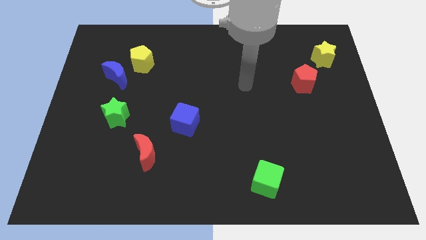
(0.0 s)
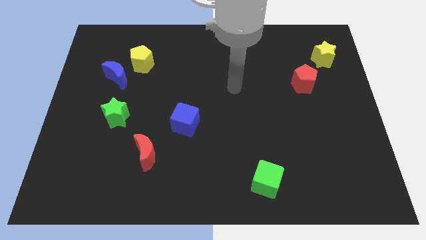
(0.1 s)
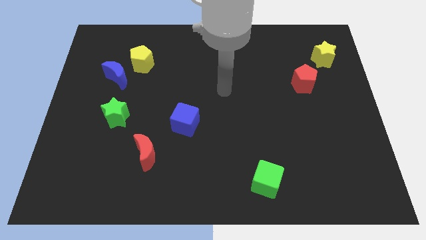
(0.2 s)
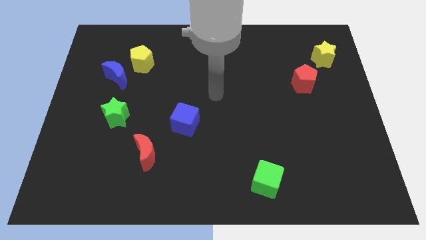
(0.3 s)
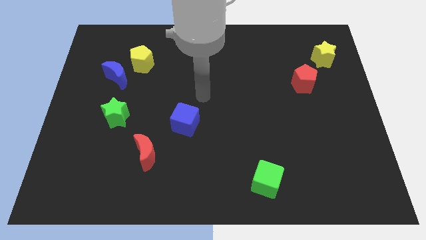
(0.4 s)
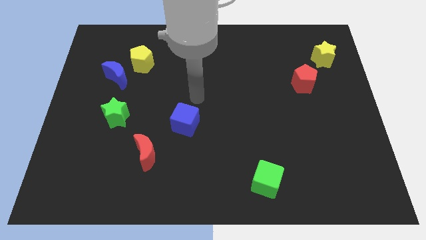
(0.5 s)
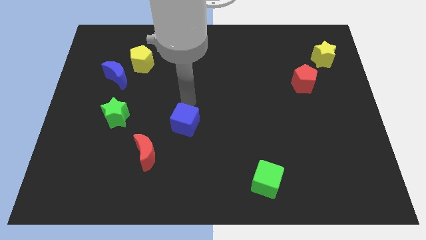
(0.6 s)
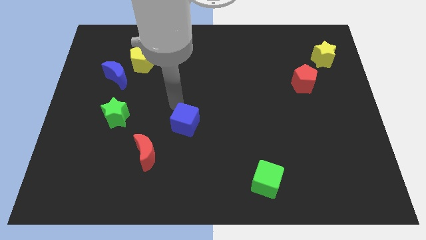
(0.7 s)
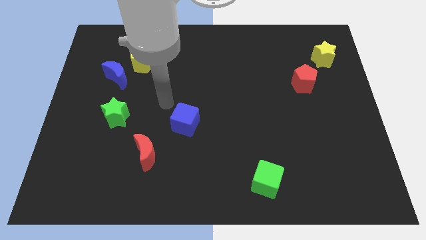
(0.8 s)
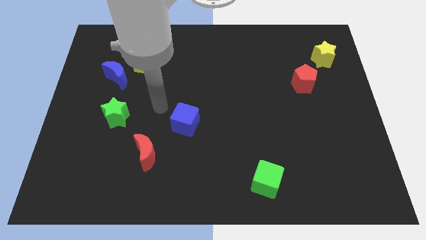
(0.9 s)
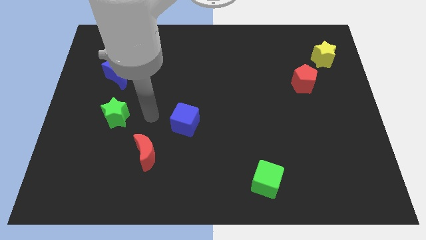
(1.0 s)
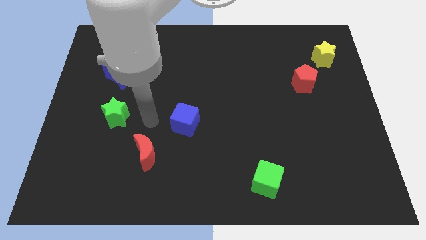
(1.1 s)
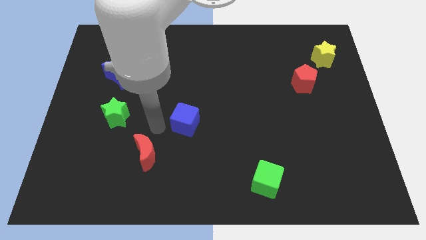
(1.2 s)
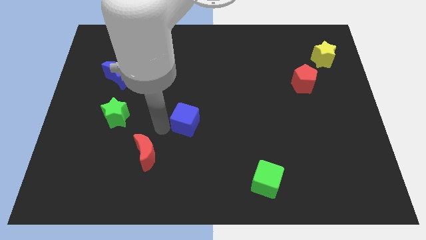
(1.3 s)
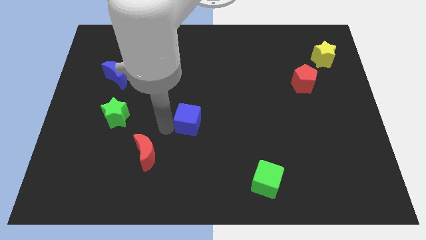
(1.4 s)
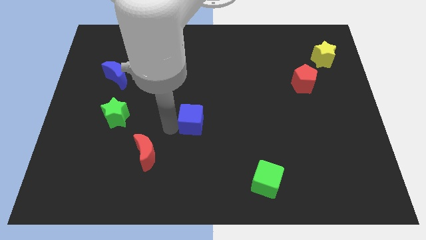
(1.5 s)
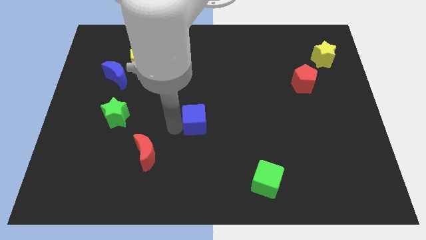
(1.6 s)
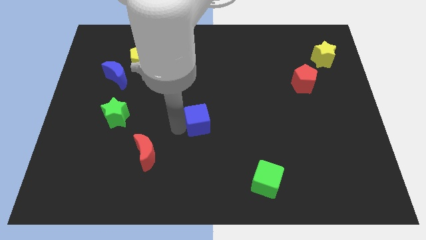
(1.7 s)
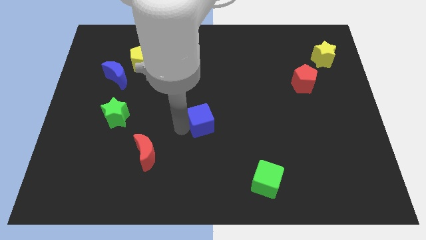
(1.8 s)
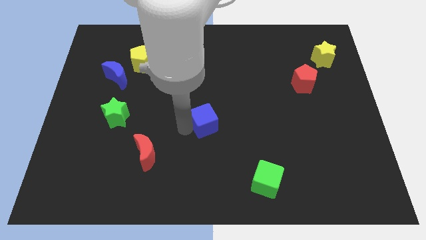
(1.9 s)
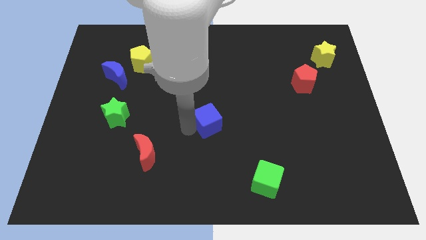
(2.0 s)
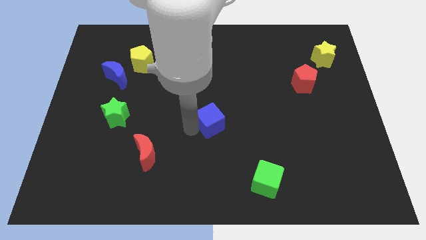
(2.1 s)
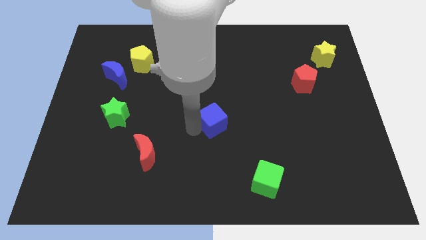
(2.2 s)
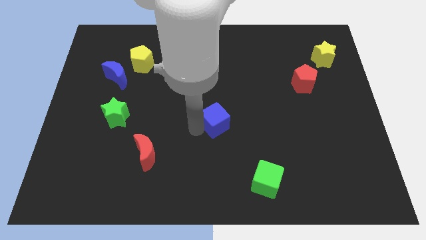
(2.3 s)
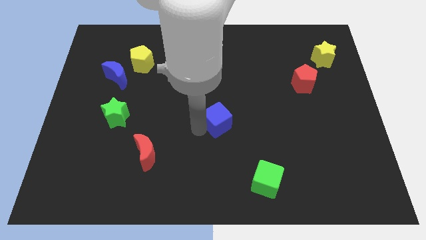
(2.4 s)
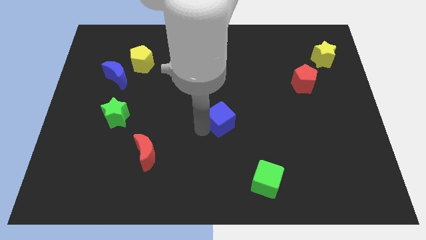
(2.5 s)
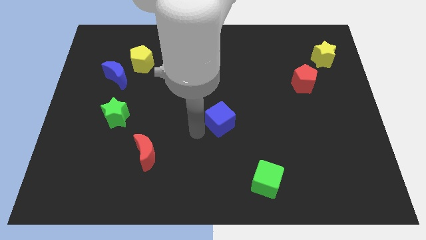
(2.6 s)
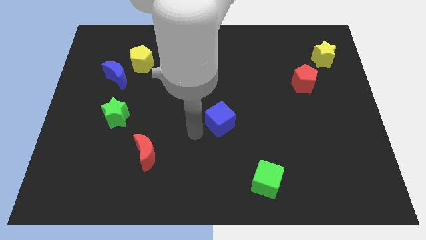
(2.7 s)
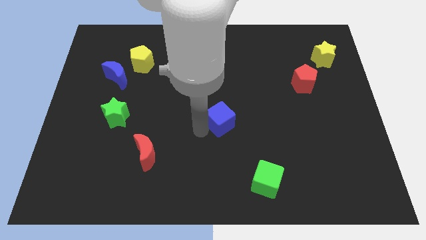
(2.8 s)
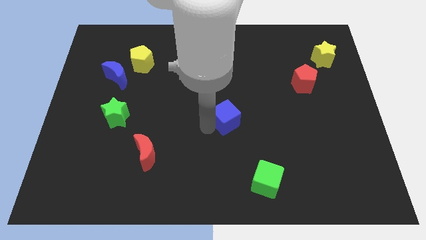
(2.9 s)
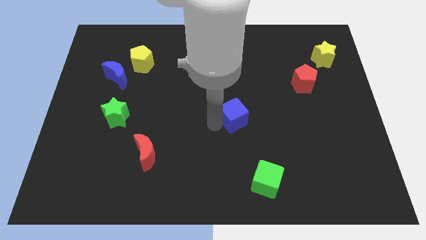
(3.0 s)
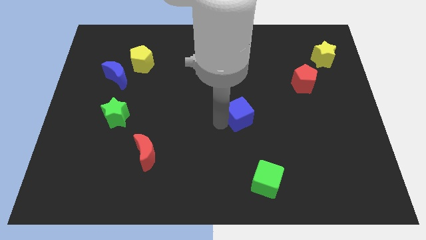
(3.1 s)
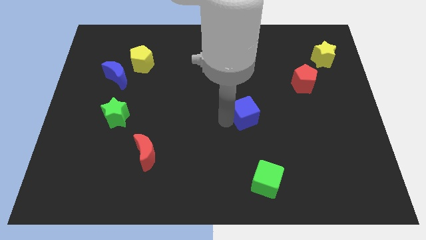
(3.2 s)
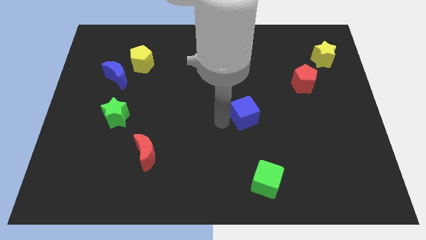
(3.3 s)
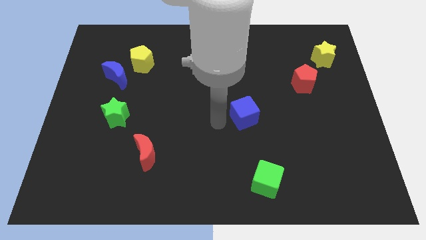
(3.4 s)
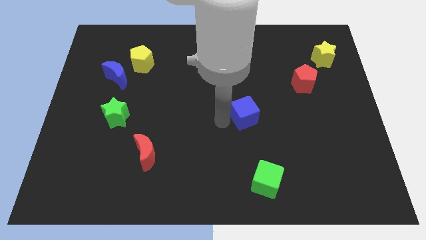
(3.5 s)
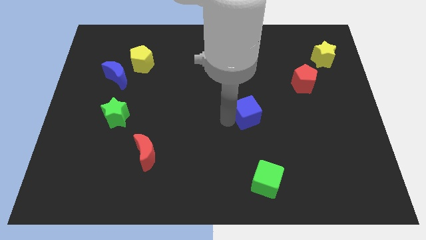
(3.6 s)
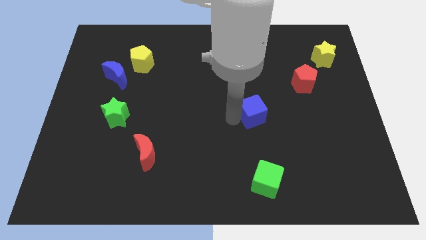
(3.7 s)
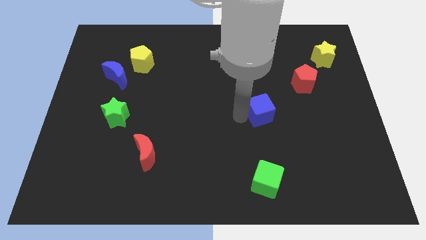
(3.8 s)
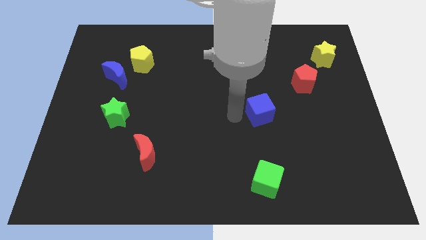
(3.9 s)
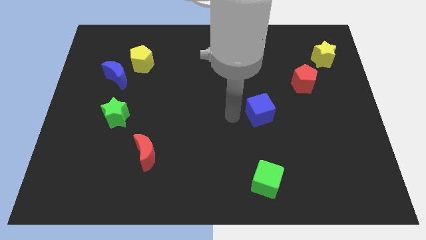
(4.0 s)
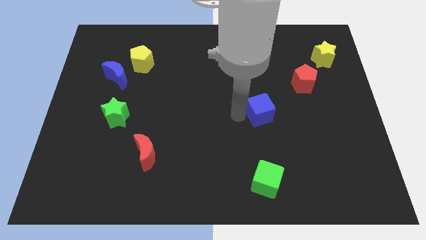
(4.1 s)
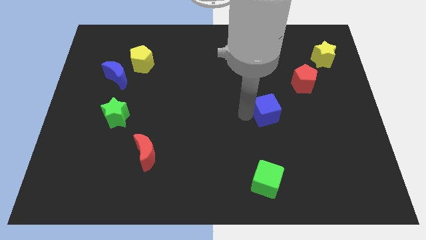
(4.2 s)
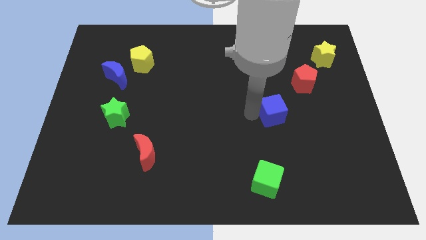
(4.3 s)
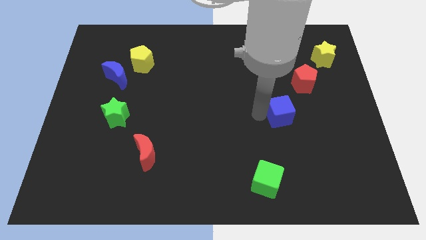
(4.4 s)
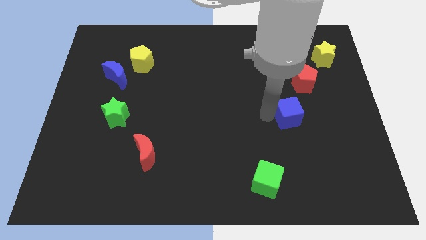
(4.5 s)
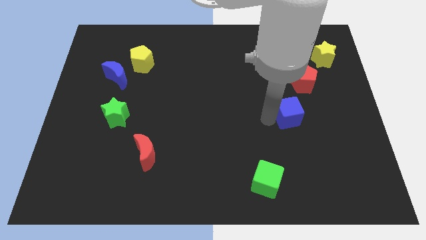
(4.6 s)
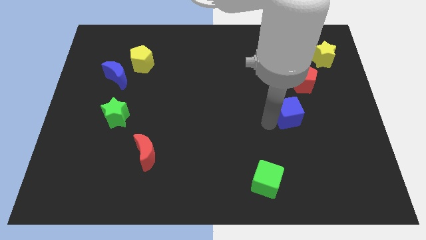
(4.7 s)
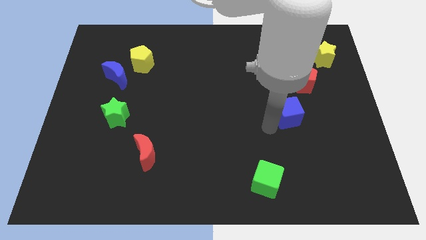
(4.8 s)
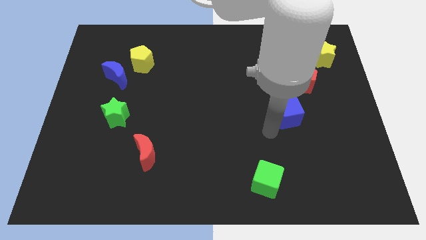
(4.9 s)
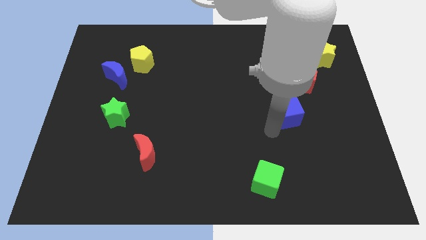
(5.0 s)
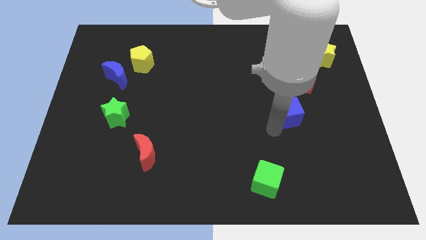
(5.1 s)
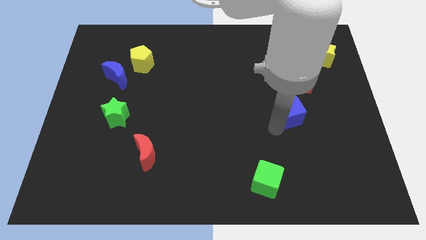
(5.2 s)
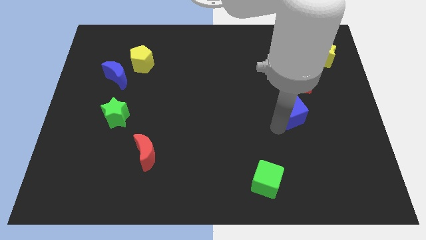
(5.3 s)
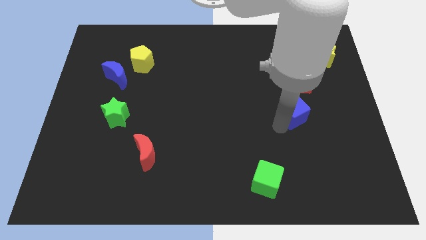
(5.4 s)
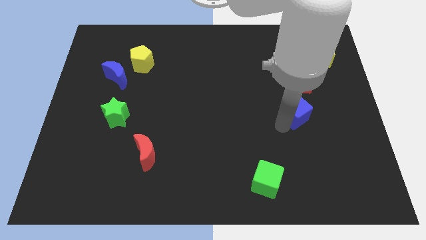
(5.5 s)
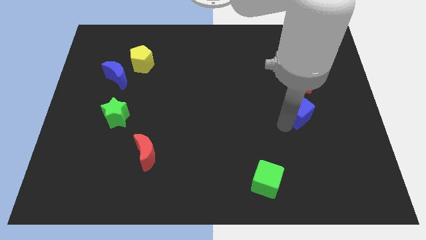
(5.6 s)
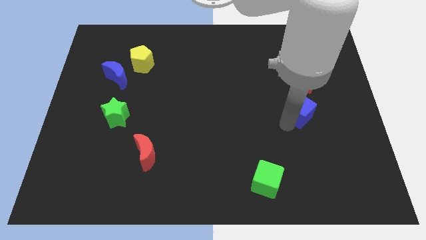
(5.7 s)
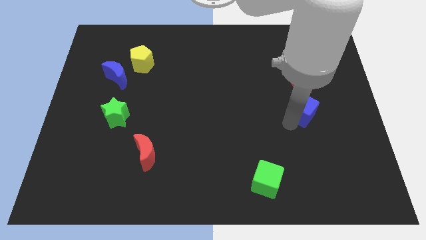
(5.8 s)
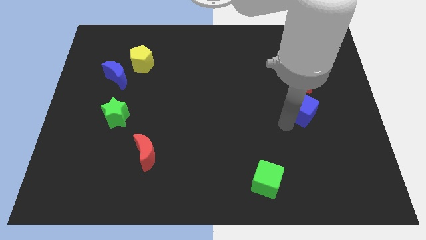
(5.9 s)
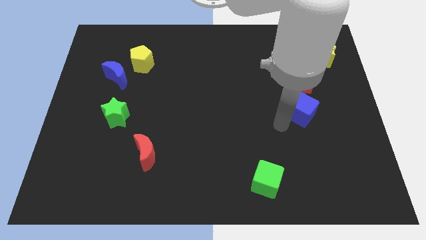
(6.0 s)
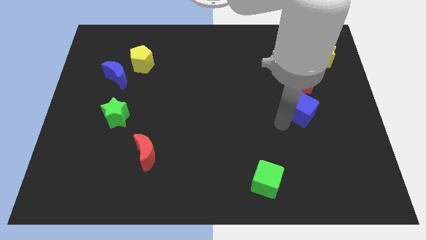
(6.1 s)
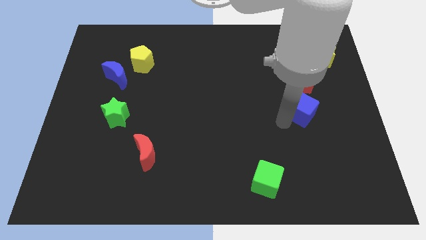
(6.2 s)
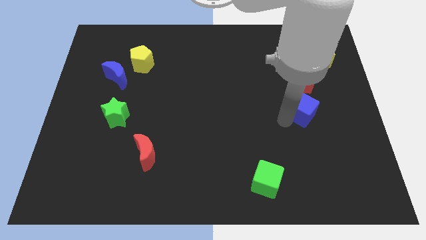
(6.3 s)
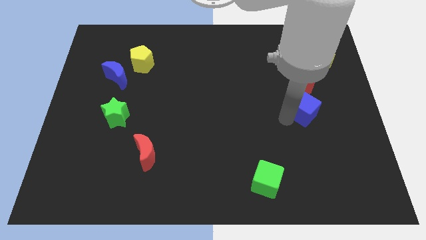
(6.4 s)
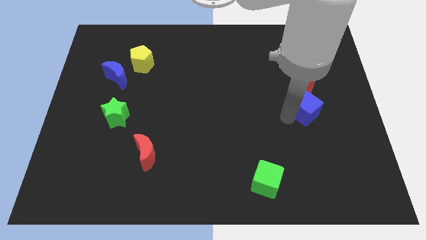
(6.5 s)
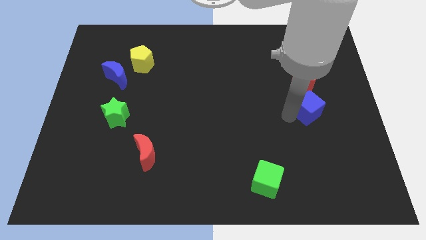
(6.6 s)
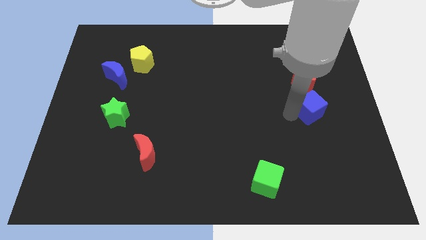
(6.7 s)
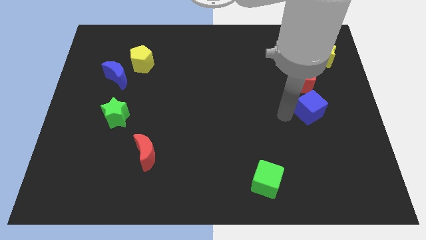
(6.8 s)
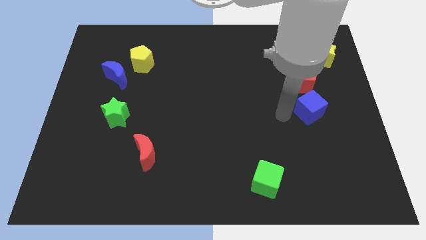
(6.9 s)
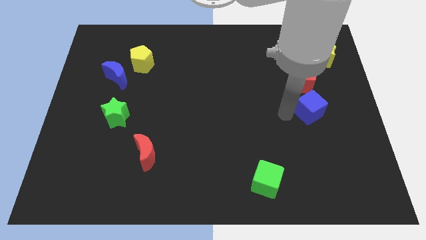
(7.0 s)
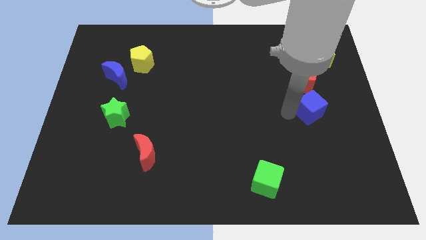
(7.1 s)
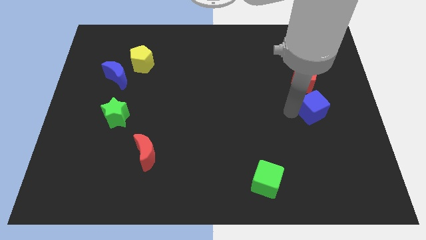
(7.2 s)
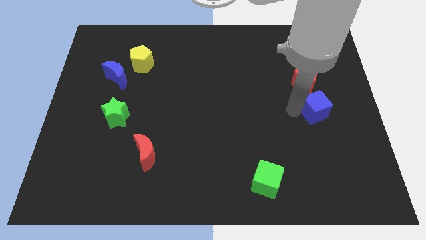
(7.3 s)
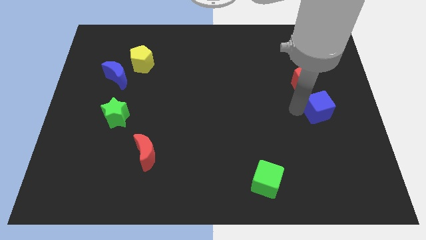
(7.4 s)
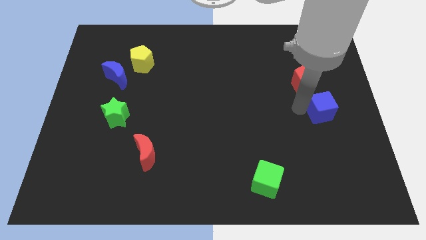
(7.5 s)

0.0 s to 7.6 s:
slide the blue cube to the right side of the board
